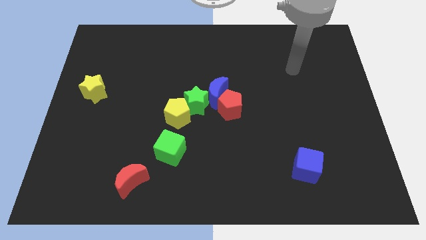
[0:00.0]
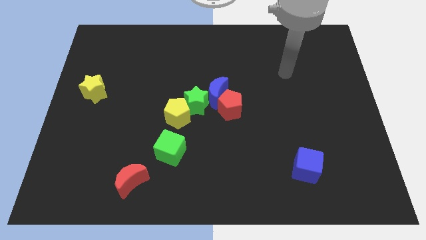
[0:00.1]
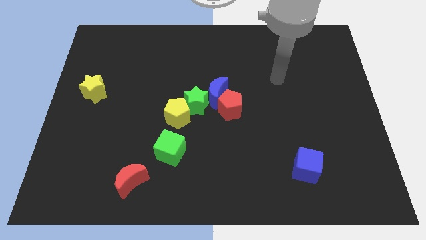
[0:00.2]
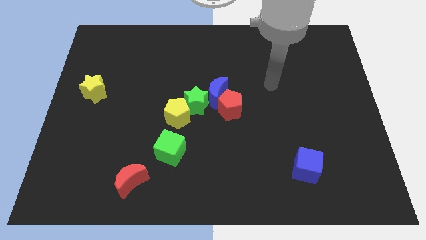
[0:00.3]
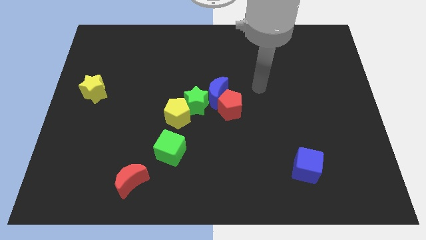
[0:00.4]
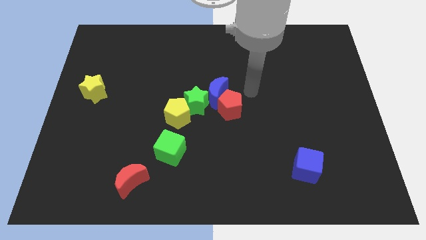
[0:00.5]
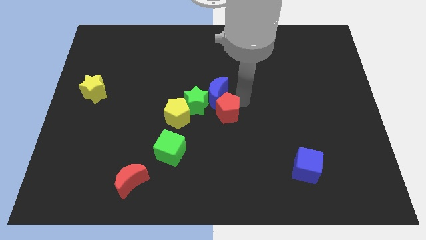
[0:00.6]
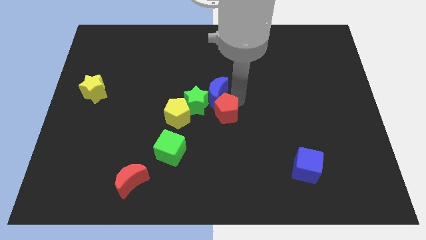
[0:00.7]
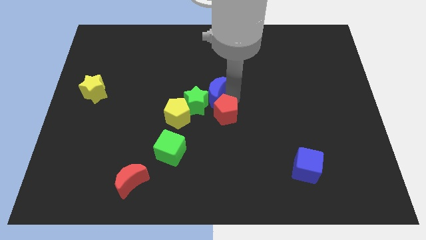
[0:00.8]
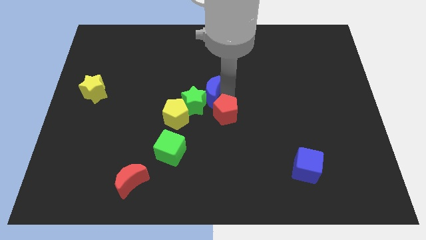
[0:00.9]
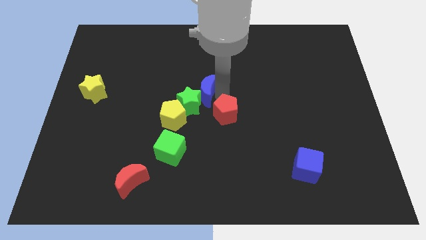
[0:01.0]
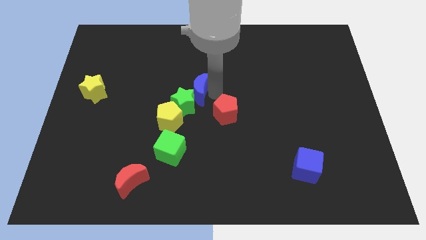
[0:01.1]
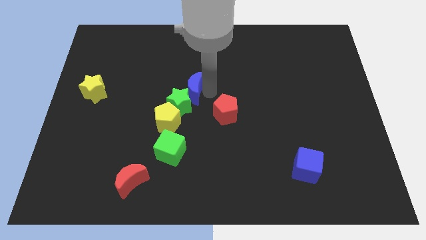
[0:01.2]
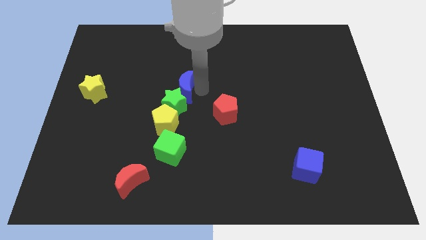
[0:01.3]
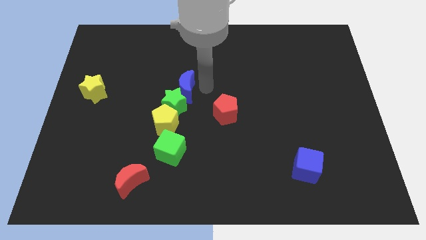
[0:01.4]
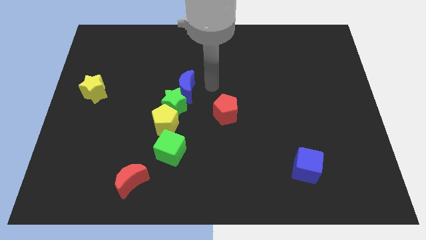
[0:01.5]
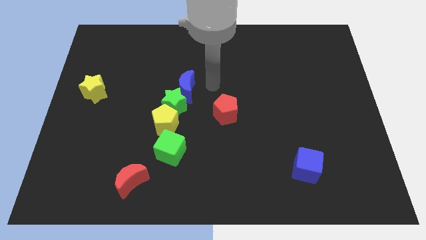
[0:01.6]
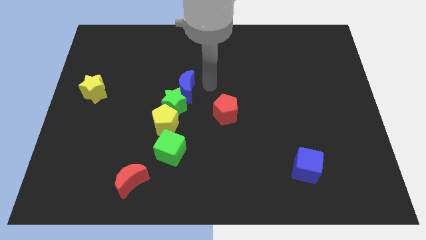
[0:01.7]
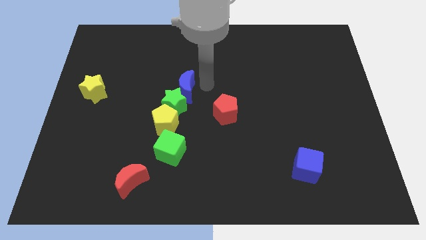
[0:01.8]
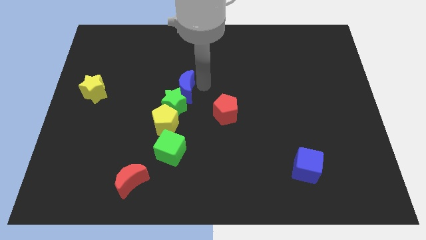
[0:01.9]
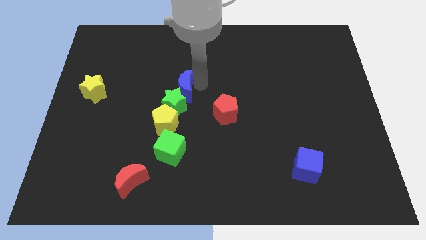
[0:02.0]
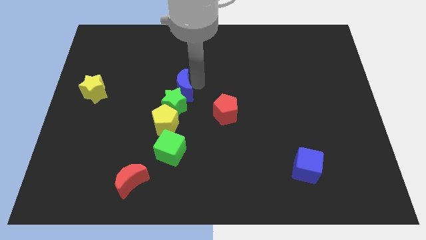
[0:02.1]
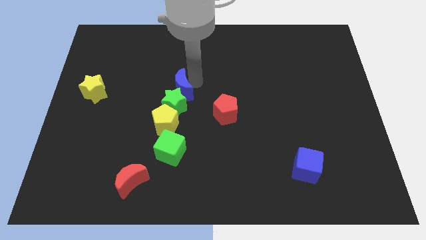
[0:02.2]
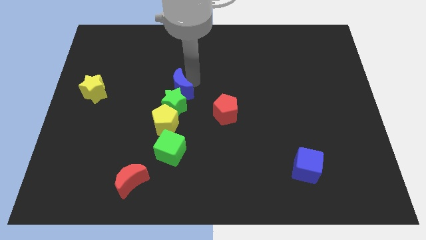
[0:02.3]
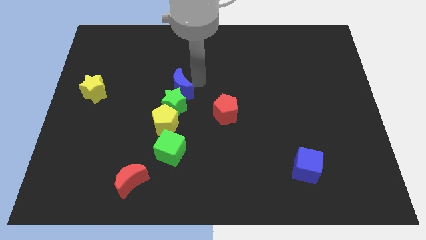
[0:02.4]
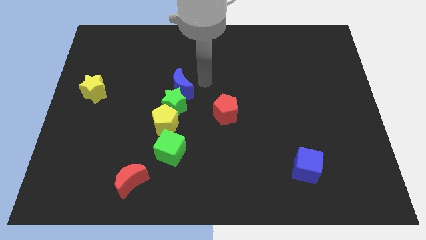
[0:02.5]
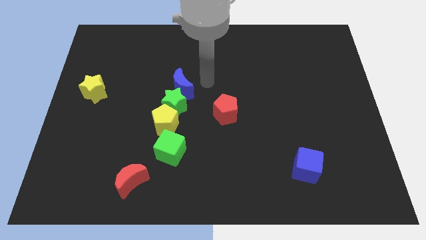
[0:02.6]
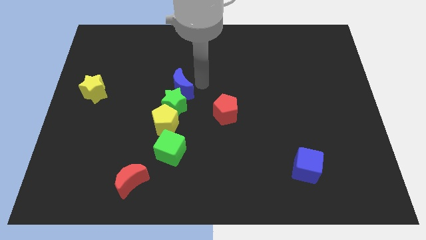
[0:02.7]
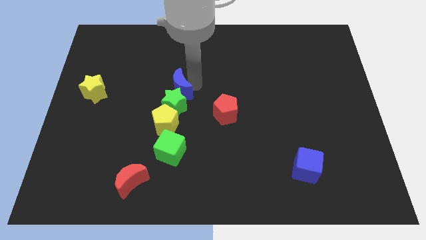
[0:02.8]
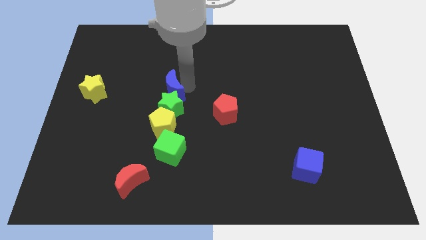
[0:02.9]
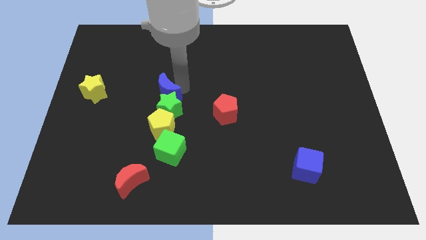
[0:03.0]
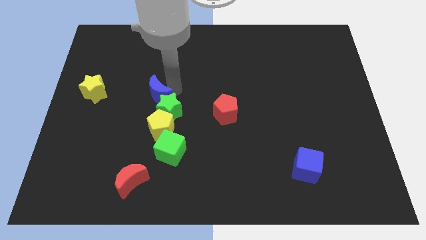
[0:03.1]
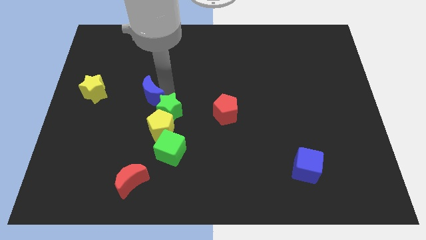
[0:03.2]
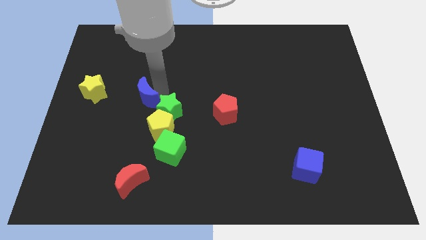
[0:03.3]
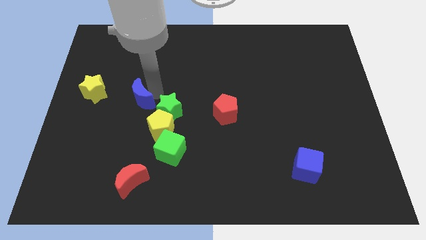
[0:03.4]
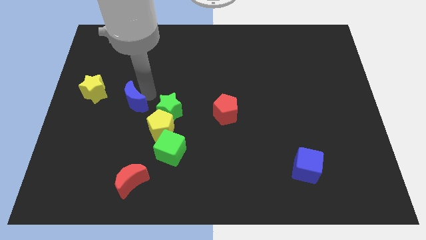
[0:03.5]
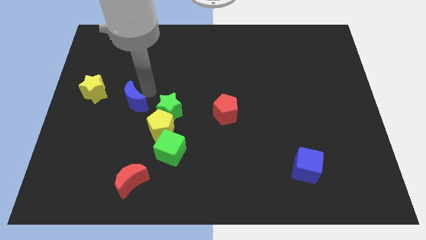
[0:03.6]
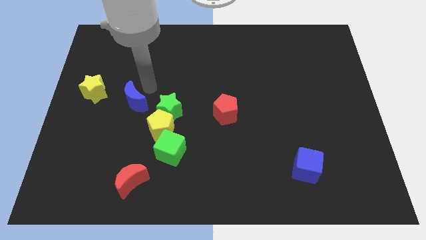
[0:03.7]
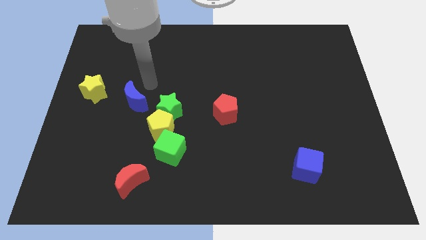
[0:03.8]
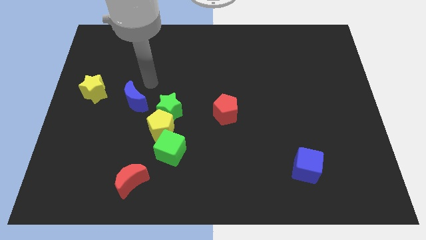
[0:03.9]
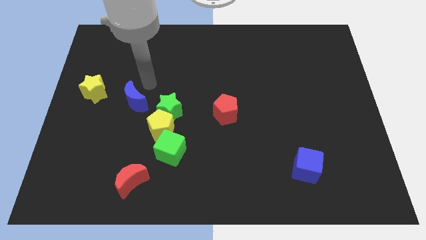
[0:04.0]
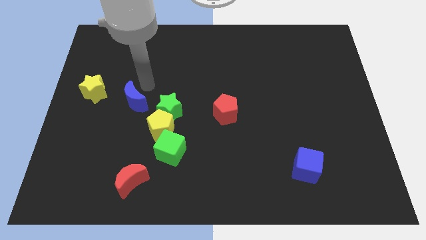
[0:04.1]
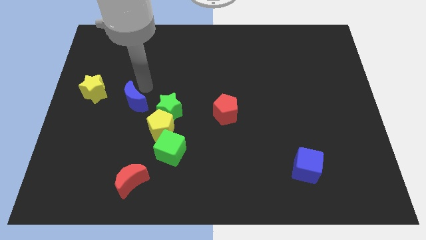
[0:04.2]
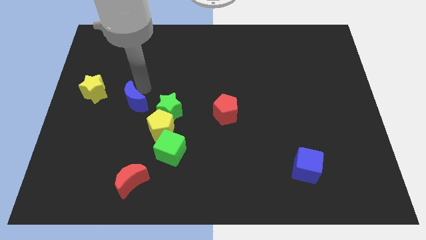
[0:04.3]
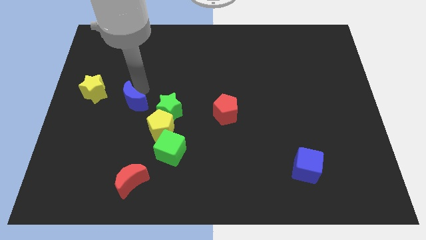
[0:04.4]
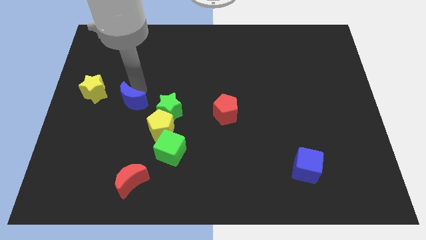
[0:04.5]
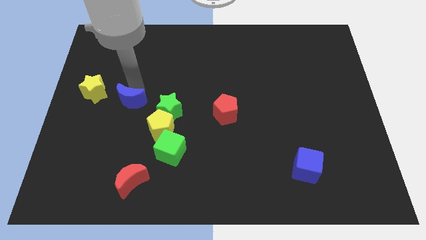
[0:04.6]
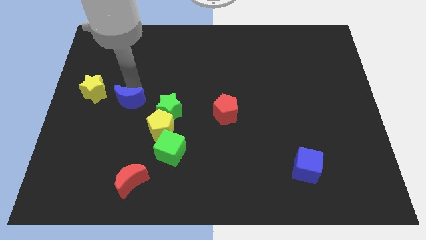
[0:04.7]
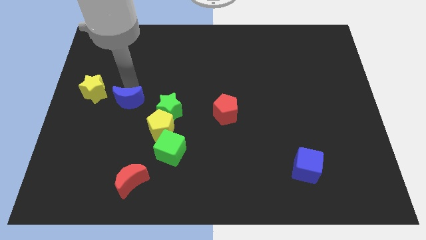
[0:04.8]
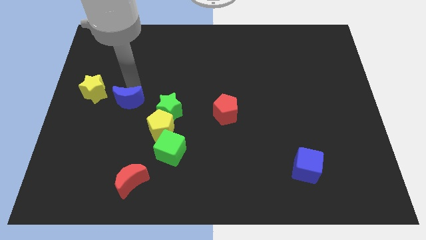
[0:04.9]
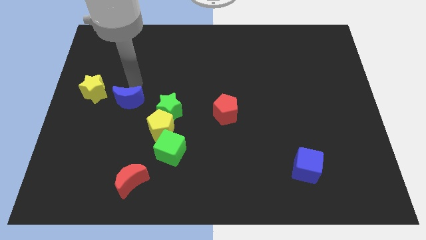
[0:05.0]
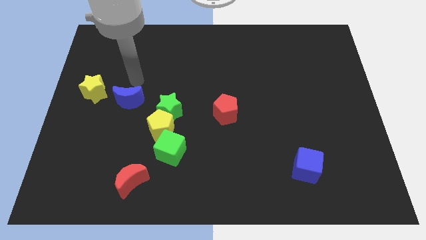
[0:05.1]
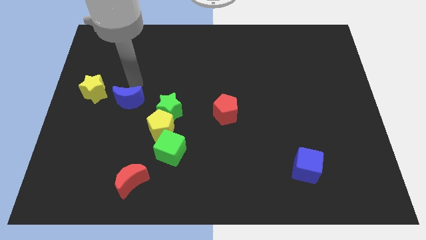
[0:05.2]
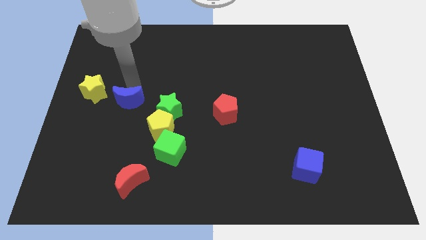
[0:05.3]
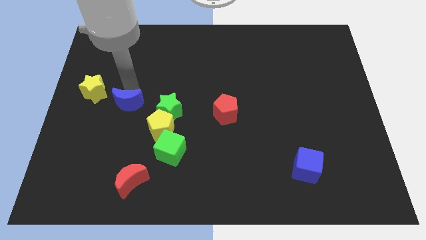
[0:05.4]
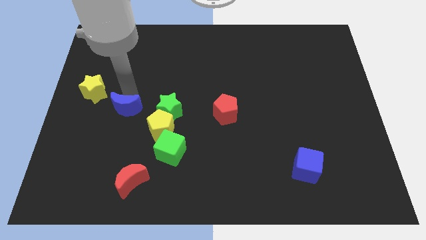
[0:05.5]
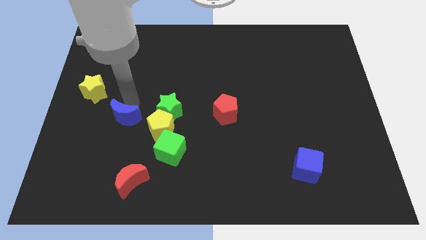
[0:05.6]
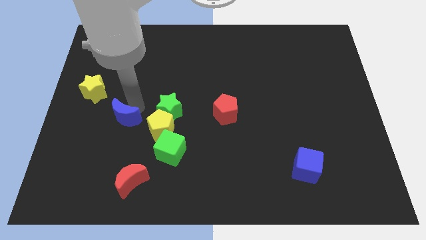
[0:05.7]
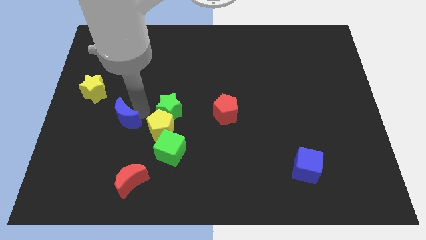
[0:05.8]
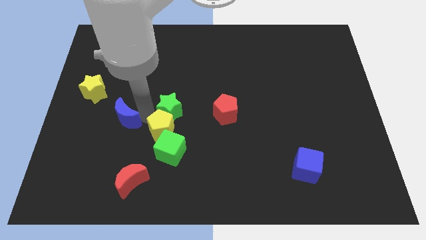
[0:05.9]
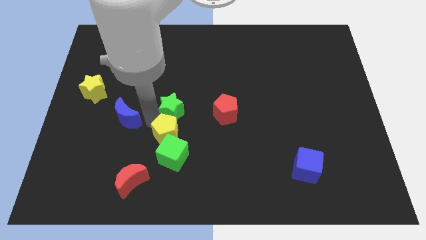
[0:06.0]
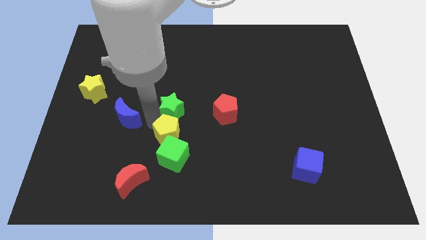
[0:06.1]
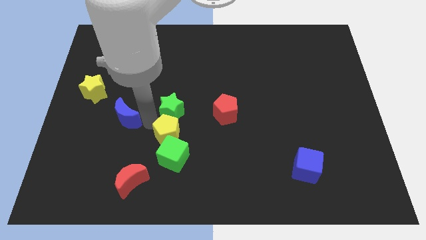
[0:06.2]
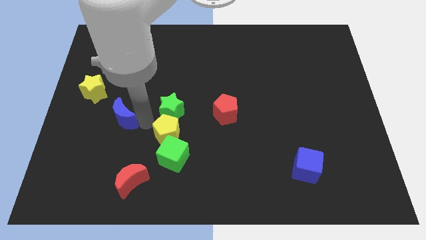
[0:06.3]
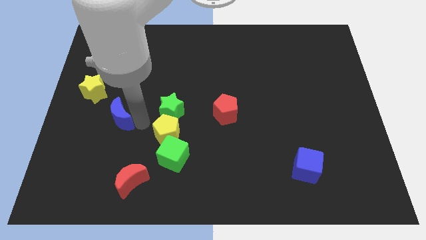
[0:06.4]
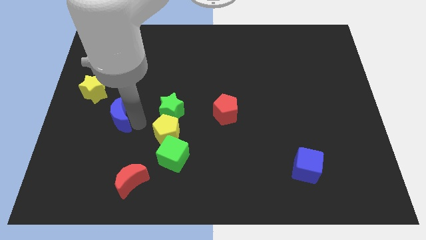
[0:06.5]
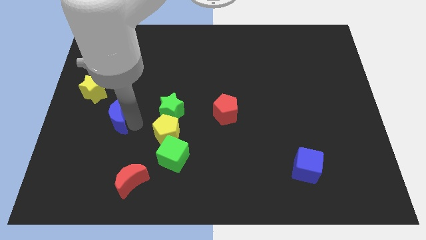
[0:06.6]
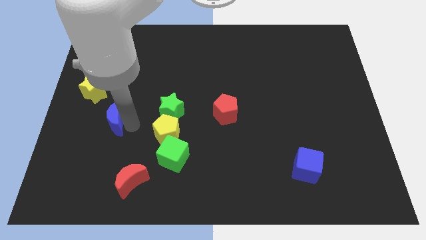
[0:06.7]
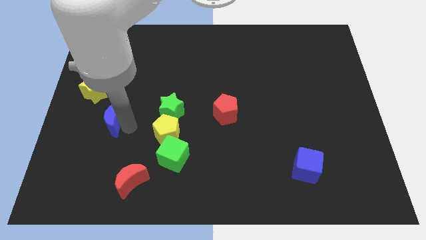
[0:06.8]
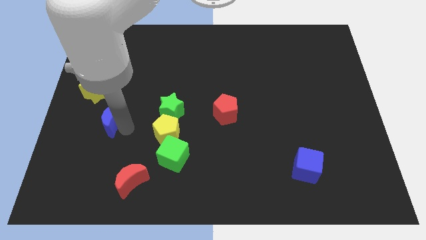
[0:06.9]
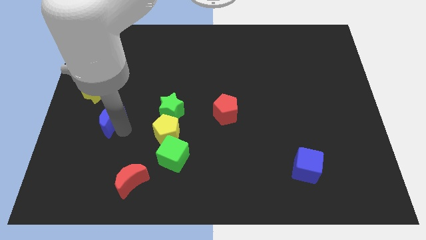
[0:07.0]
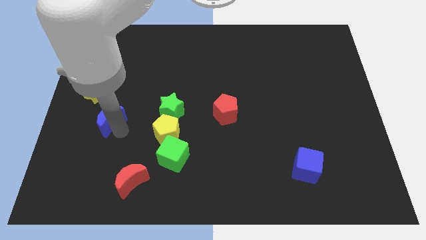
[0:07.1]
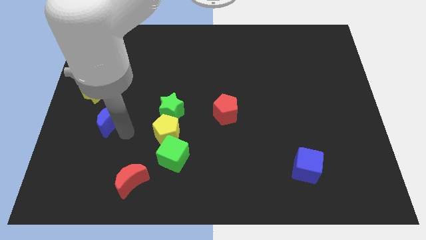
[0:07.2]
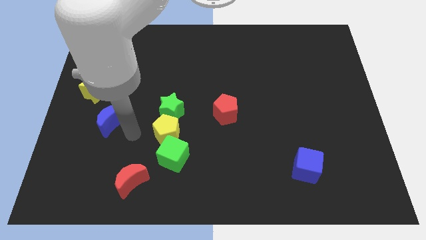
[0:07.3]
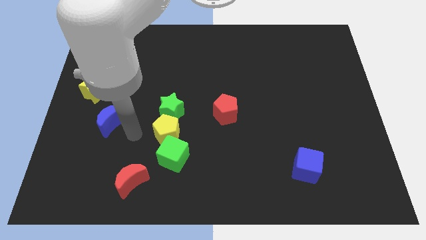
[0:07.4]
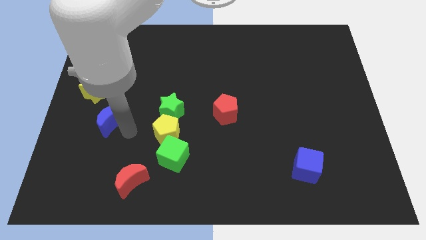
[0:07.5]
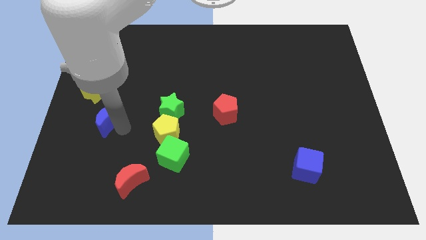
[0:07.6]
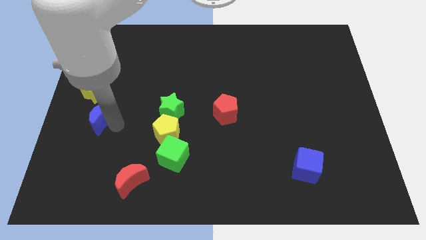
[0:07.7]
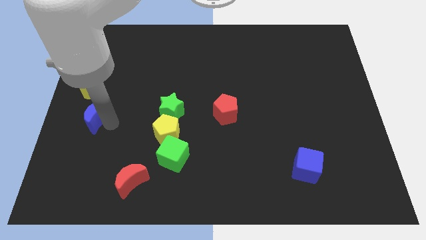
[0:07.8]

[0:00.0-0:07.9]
push the blue moon to the left side
